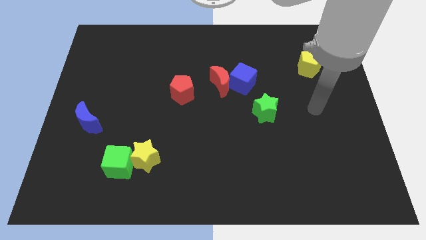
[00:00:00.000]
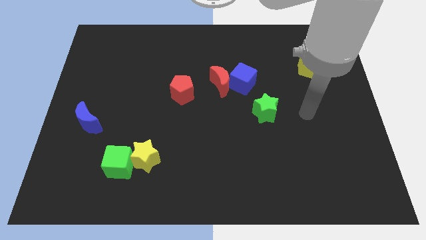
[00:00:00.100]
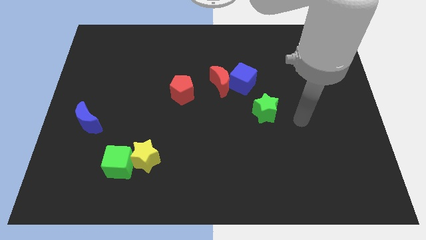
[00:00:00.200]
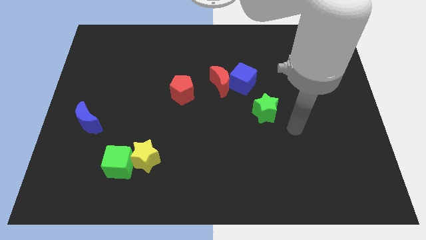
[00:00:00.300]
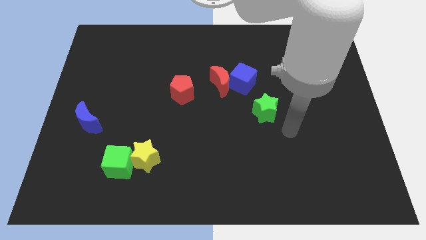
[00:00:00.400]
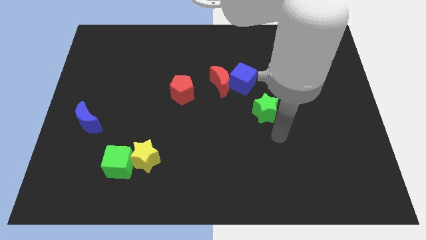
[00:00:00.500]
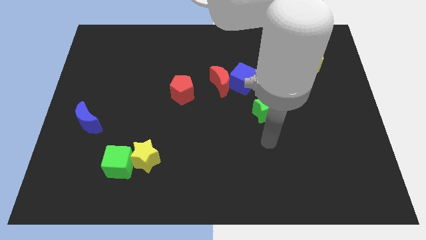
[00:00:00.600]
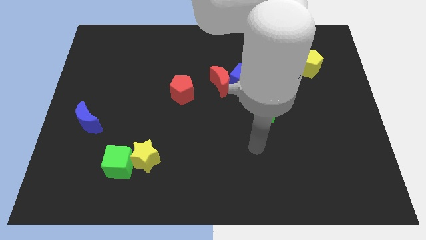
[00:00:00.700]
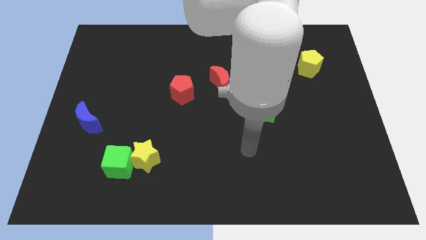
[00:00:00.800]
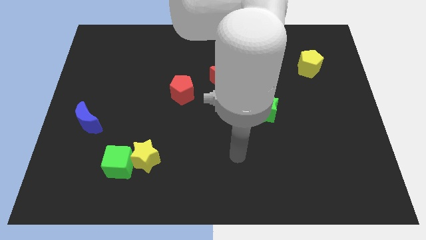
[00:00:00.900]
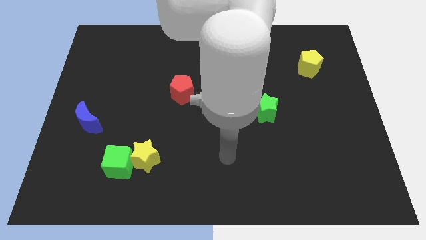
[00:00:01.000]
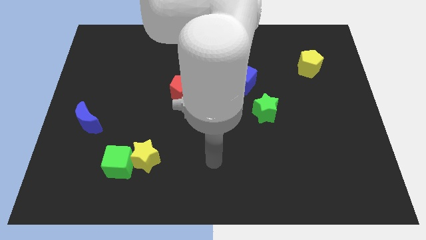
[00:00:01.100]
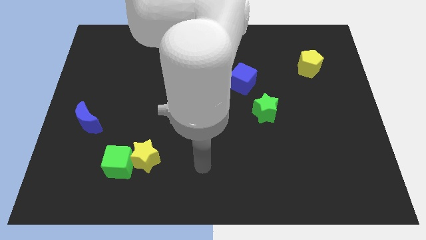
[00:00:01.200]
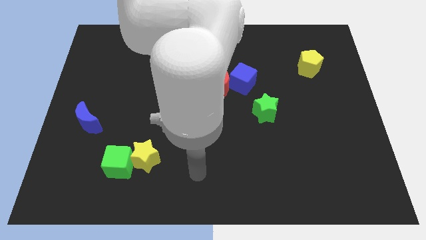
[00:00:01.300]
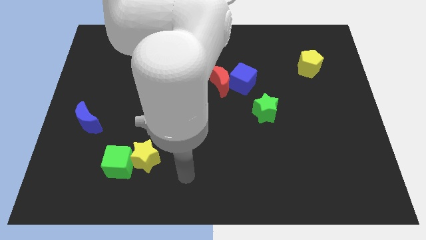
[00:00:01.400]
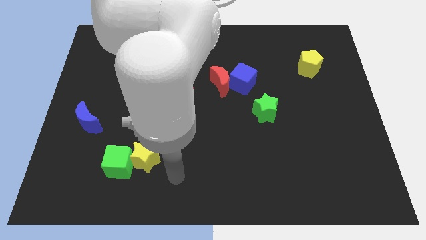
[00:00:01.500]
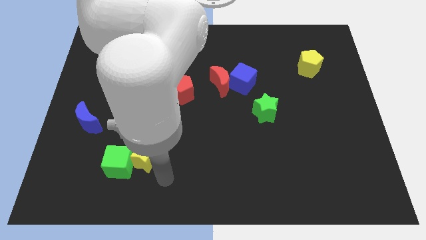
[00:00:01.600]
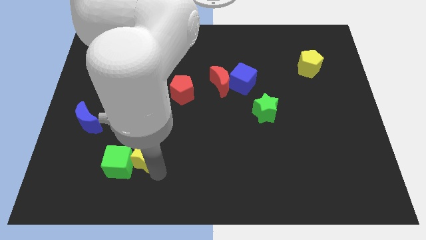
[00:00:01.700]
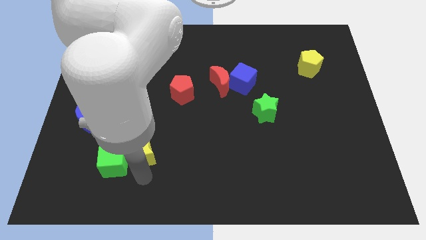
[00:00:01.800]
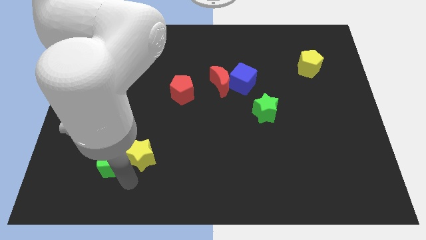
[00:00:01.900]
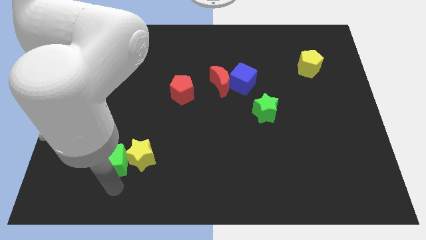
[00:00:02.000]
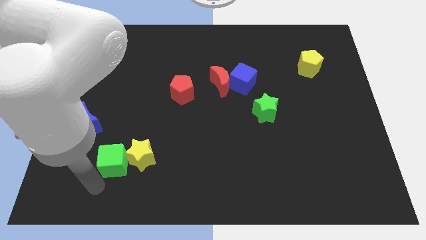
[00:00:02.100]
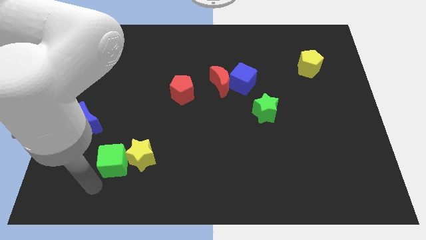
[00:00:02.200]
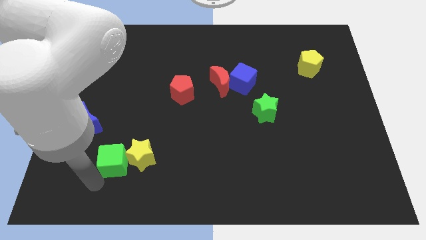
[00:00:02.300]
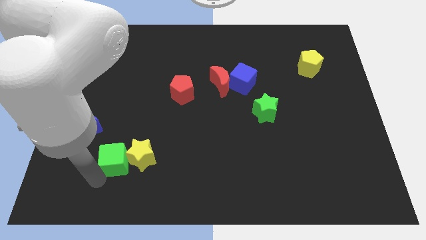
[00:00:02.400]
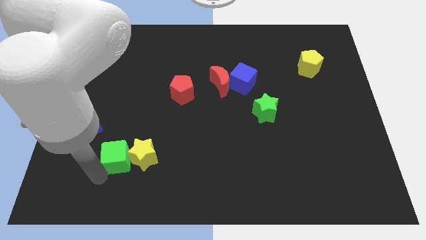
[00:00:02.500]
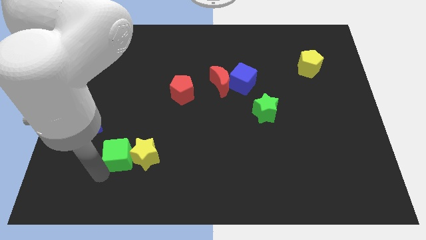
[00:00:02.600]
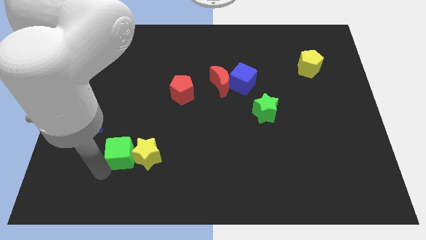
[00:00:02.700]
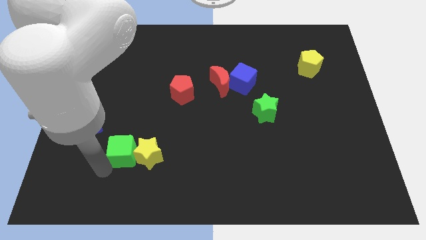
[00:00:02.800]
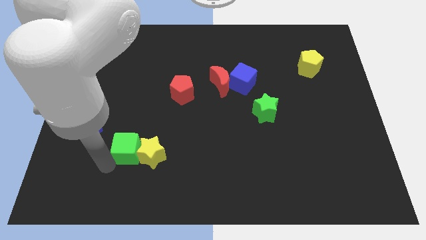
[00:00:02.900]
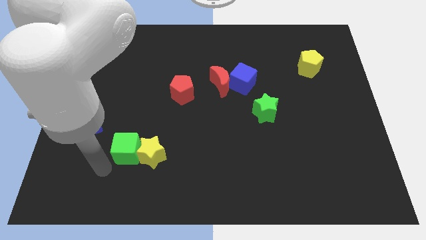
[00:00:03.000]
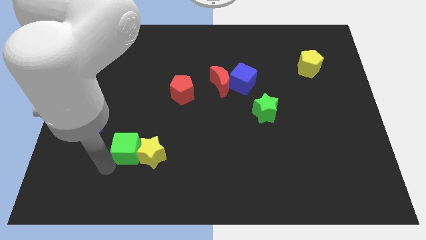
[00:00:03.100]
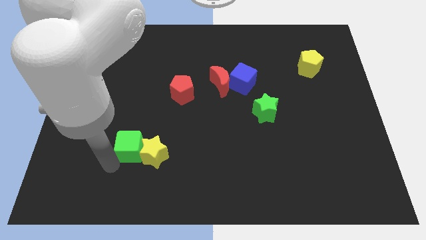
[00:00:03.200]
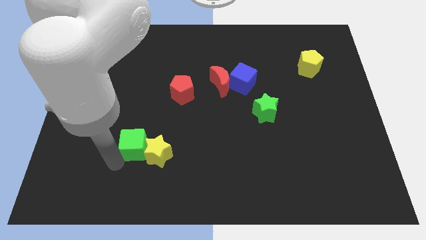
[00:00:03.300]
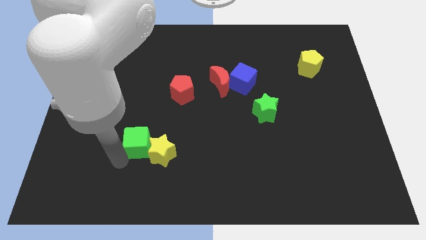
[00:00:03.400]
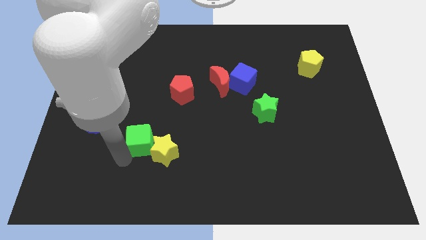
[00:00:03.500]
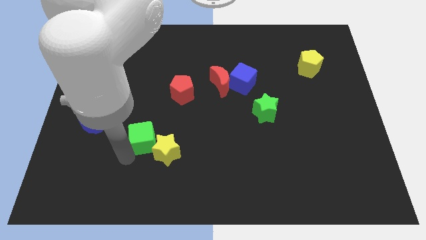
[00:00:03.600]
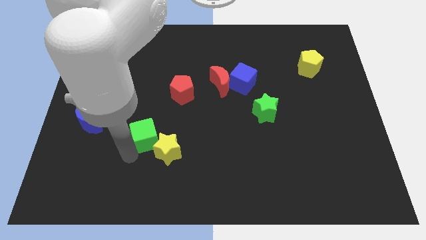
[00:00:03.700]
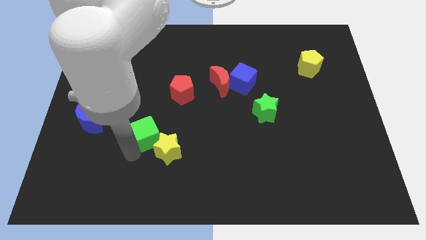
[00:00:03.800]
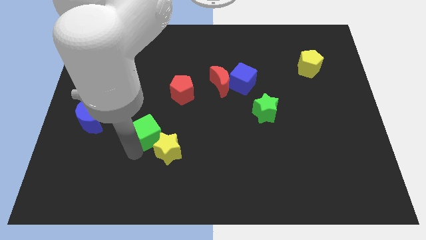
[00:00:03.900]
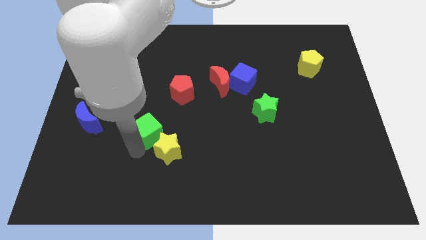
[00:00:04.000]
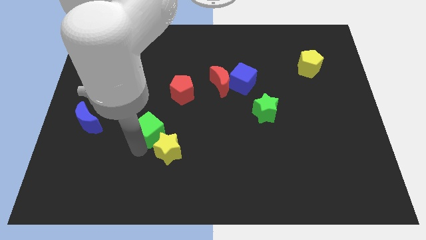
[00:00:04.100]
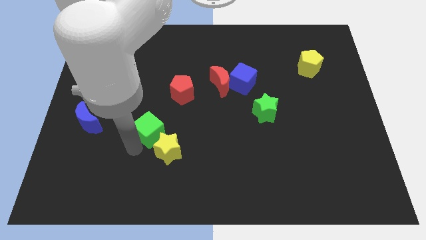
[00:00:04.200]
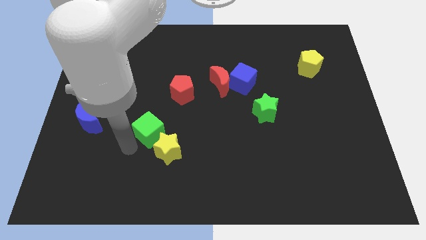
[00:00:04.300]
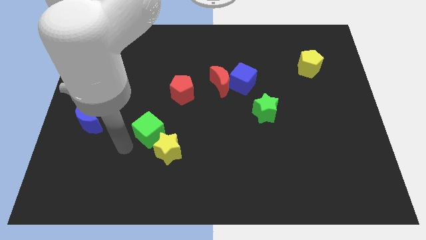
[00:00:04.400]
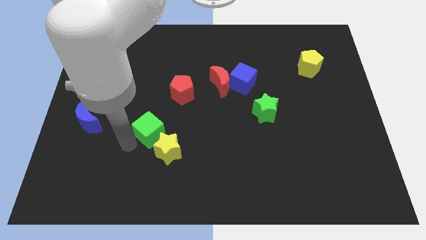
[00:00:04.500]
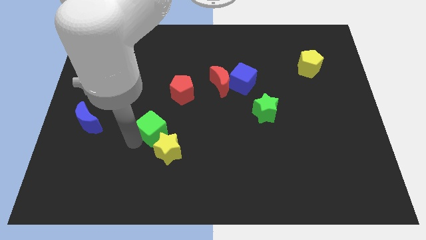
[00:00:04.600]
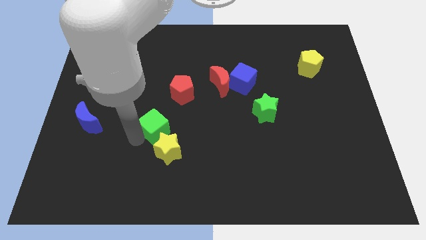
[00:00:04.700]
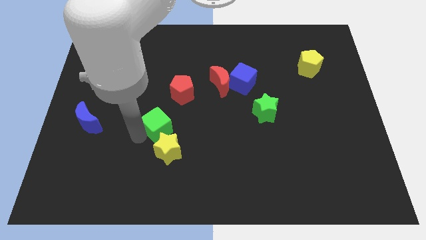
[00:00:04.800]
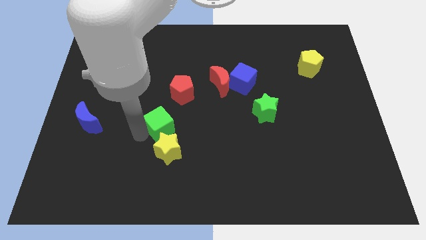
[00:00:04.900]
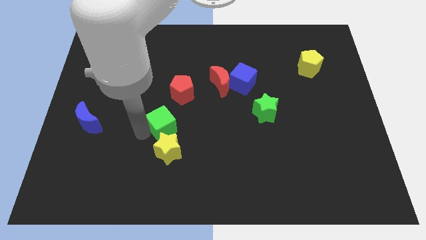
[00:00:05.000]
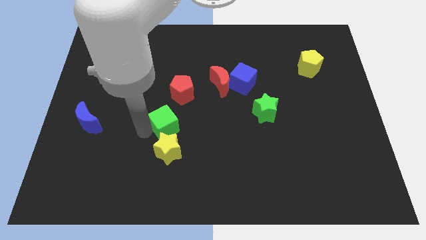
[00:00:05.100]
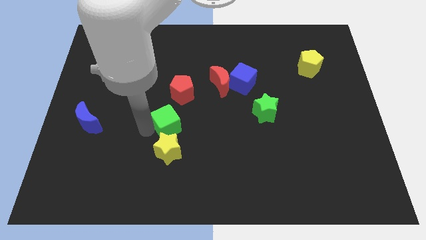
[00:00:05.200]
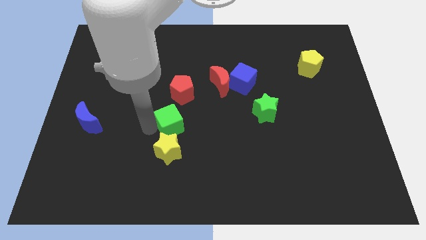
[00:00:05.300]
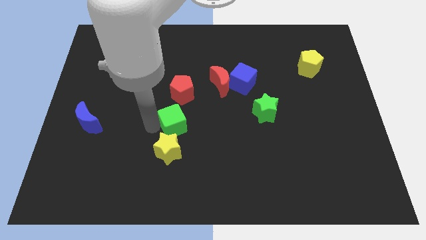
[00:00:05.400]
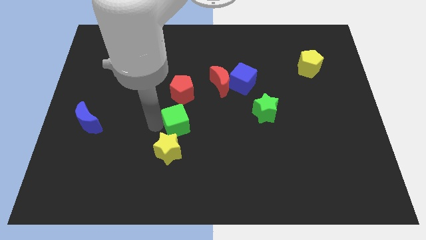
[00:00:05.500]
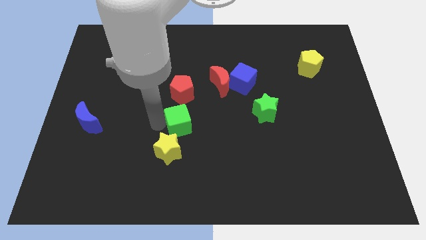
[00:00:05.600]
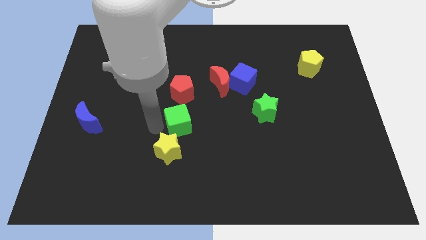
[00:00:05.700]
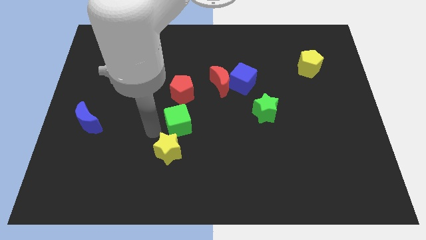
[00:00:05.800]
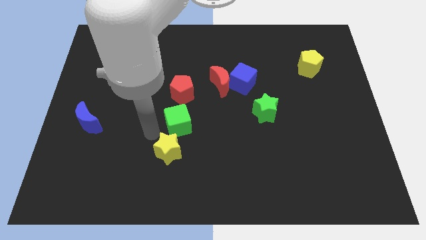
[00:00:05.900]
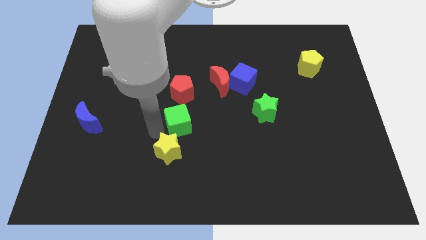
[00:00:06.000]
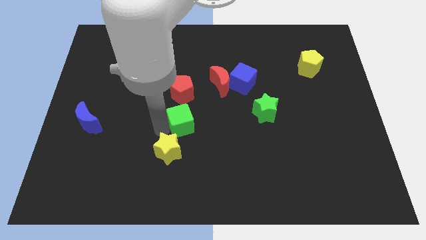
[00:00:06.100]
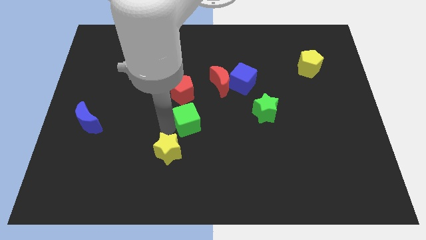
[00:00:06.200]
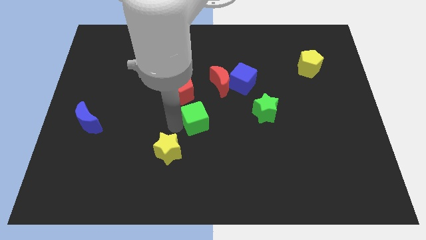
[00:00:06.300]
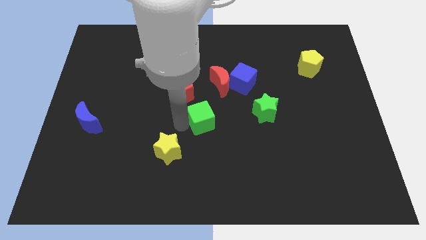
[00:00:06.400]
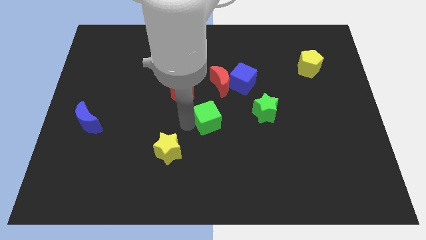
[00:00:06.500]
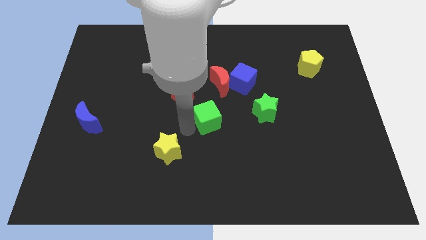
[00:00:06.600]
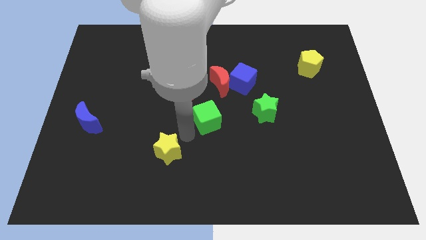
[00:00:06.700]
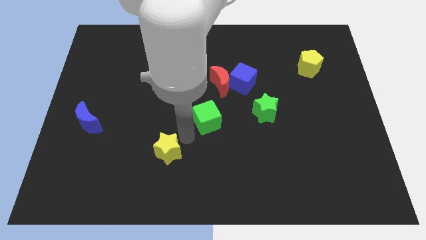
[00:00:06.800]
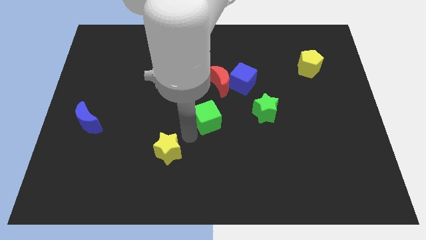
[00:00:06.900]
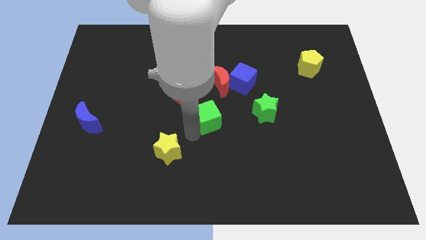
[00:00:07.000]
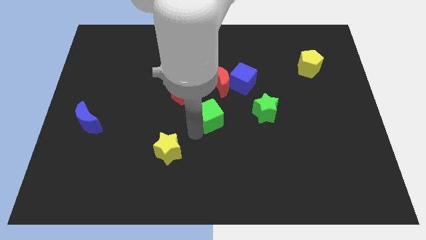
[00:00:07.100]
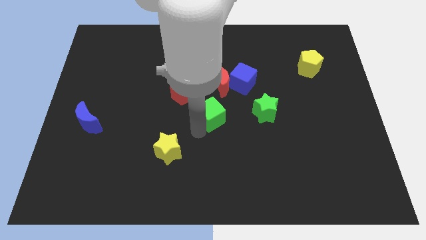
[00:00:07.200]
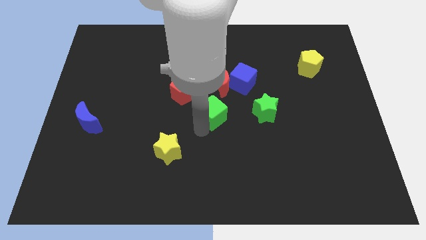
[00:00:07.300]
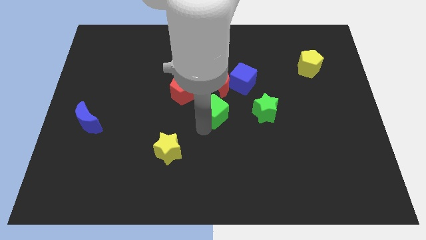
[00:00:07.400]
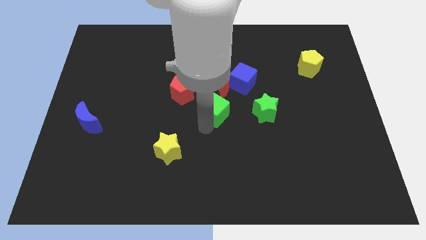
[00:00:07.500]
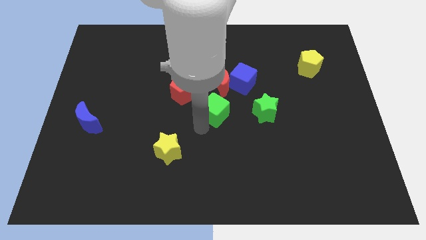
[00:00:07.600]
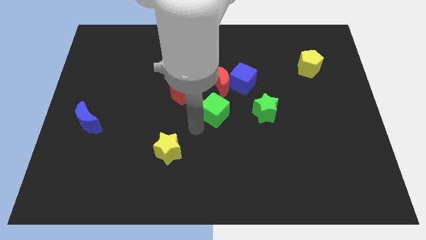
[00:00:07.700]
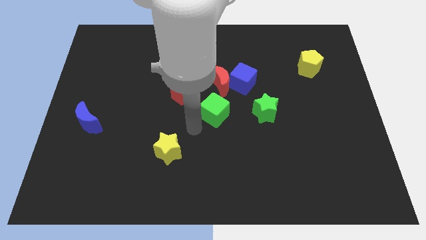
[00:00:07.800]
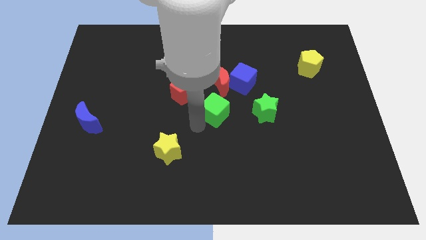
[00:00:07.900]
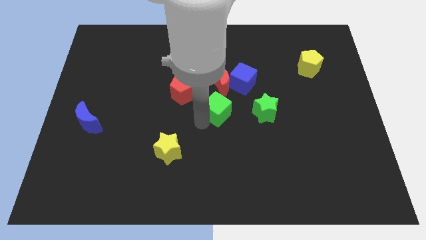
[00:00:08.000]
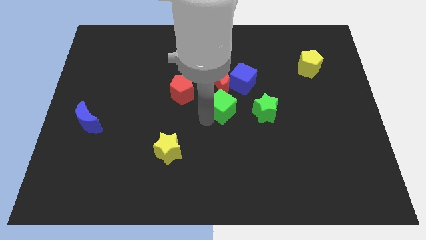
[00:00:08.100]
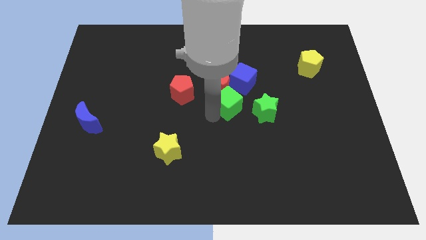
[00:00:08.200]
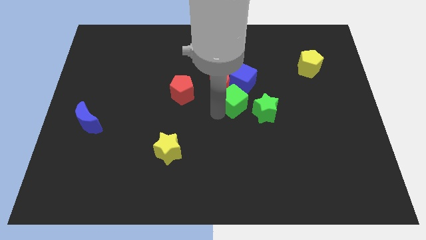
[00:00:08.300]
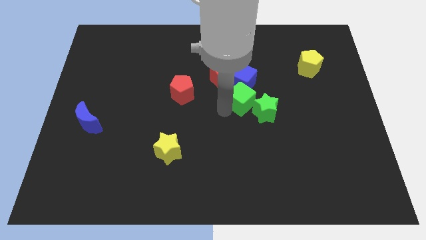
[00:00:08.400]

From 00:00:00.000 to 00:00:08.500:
slide the green cube close to the blue cube
